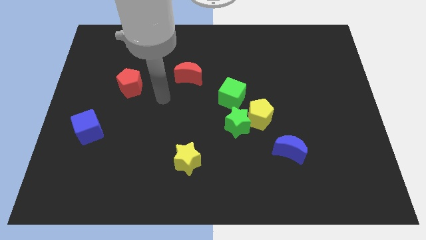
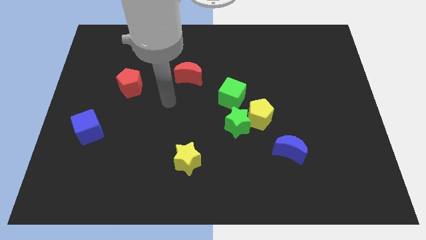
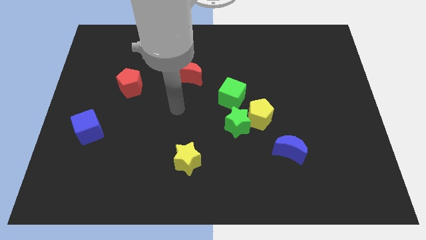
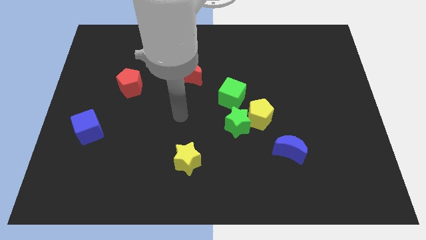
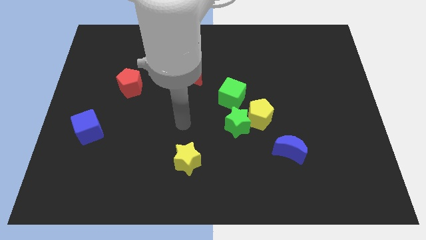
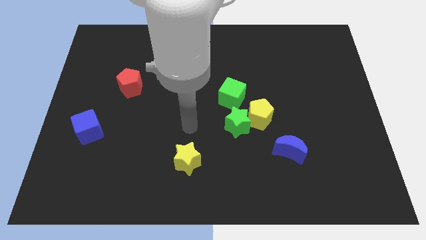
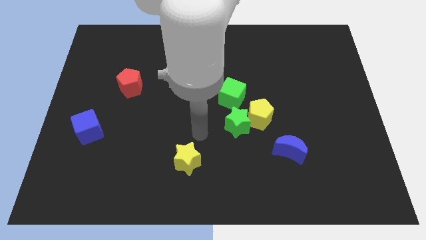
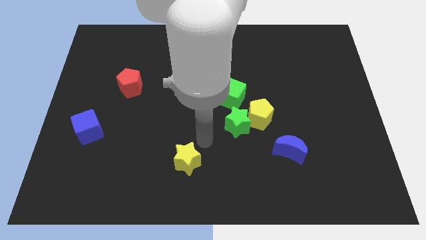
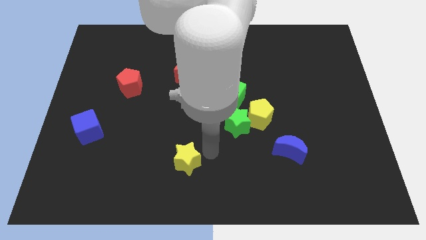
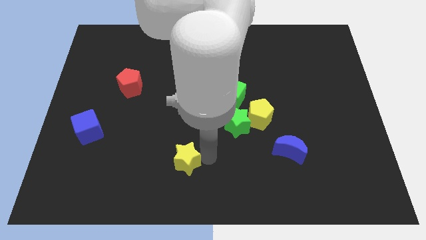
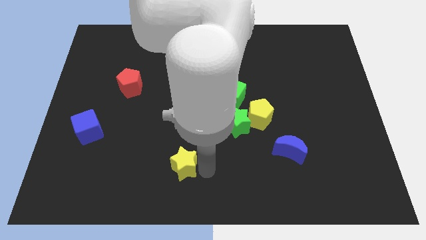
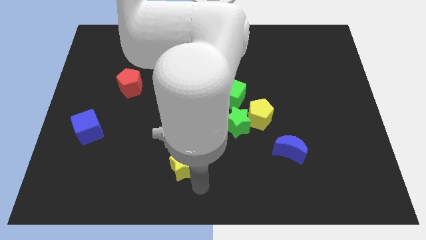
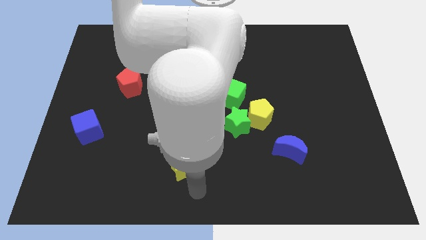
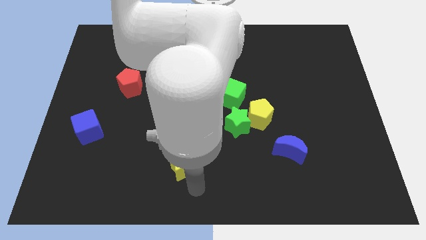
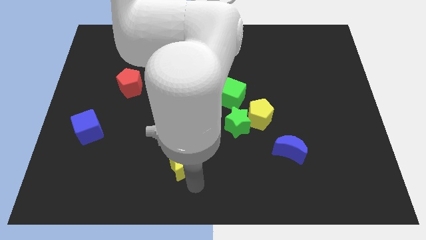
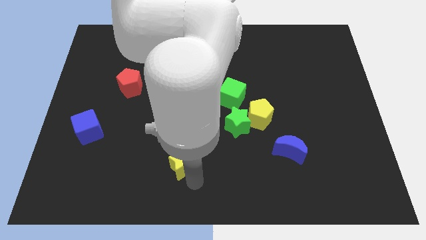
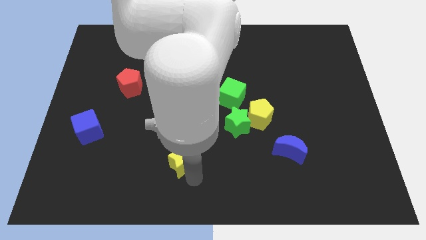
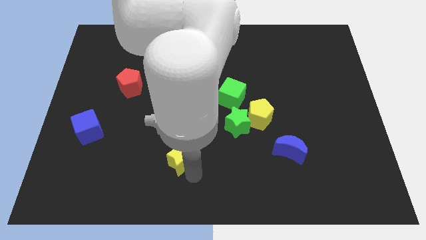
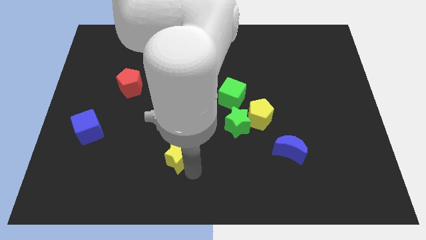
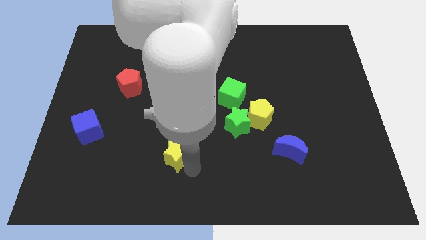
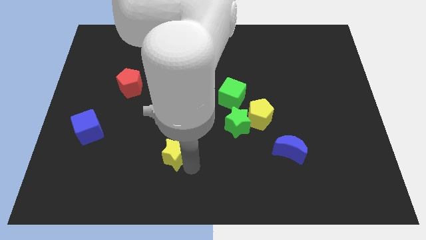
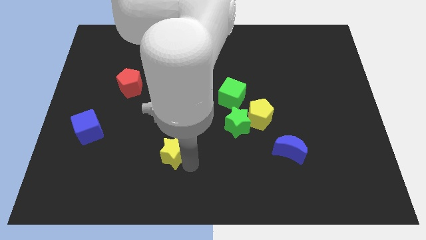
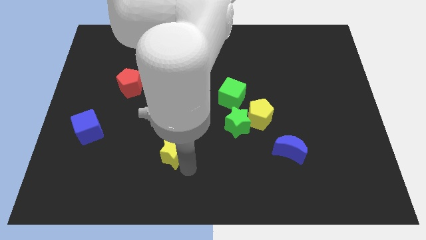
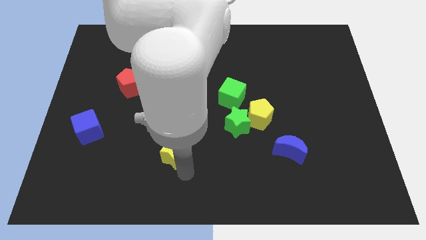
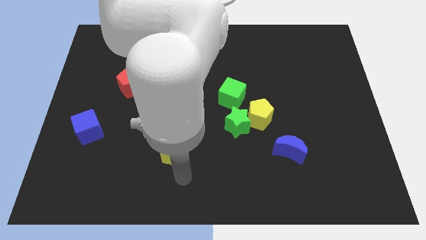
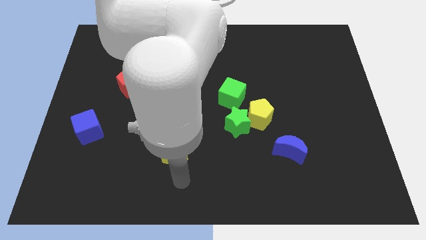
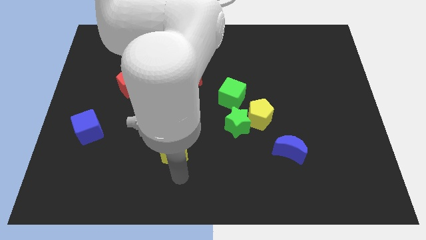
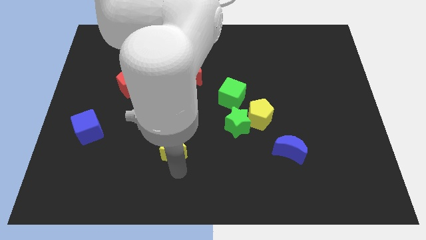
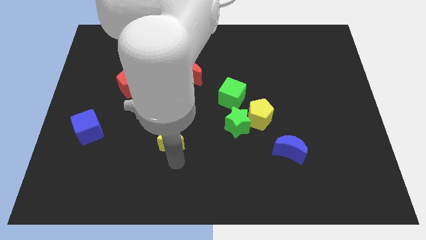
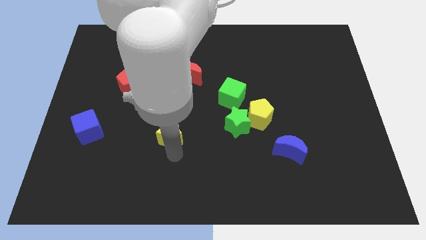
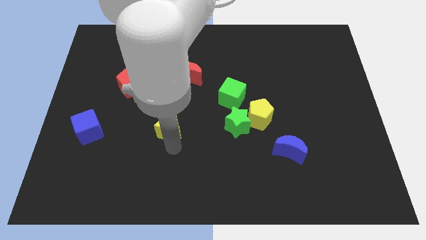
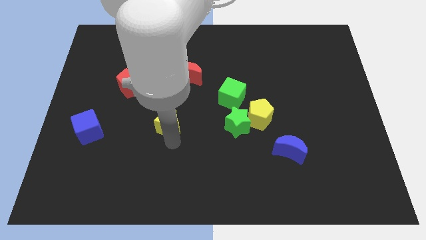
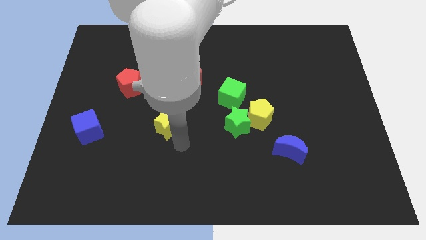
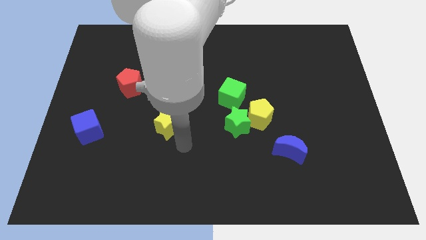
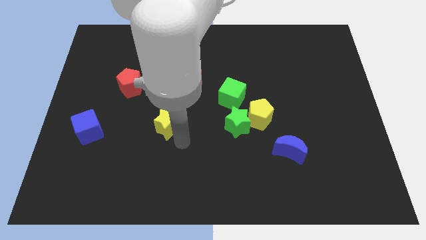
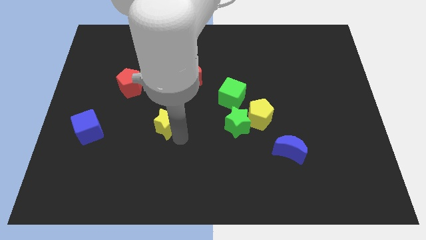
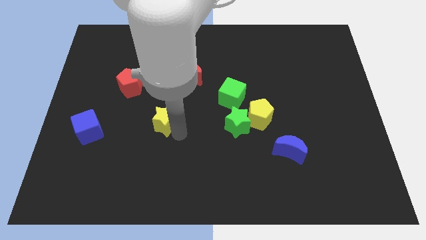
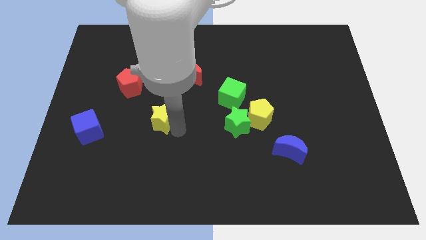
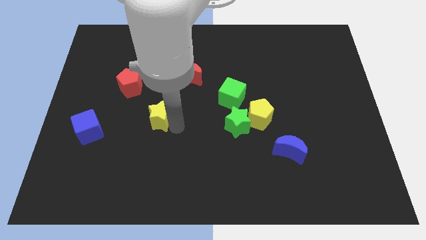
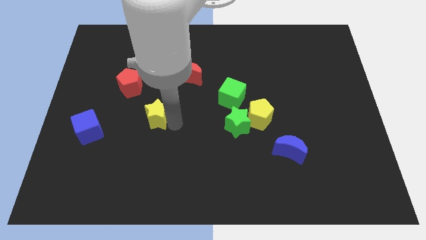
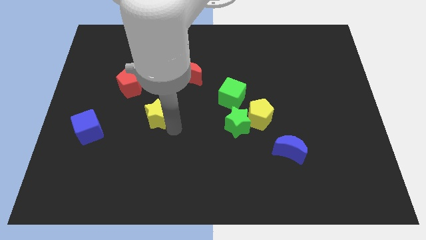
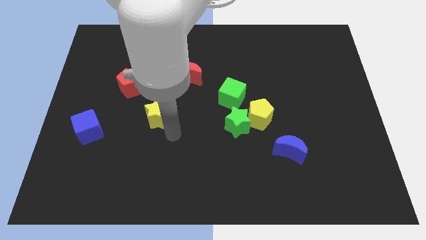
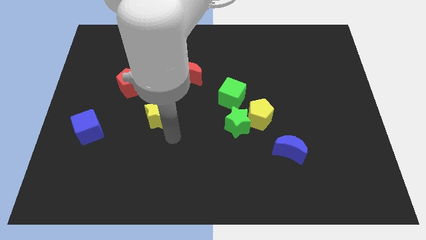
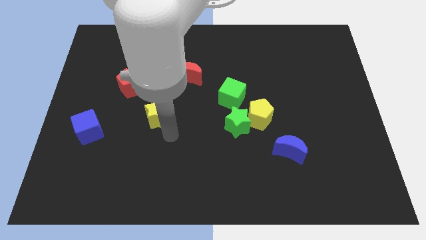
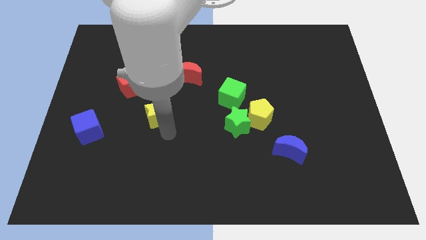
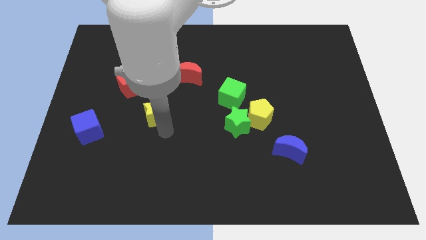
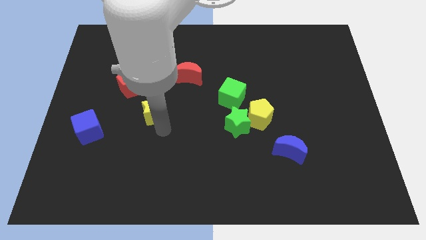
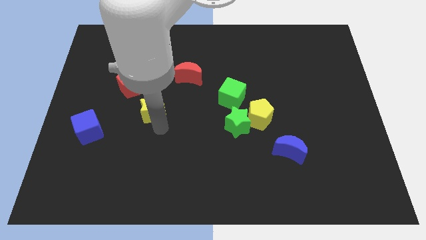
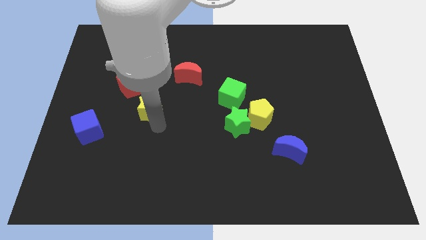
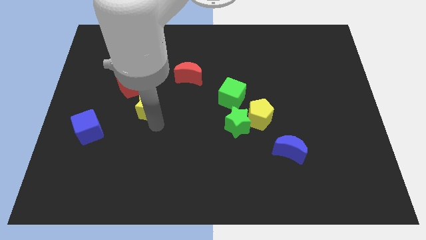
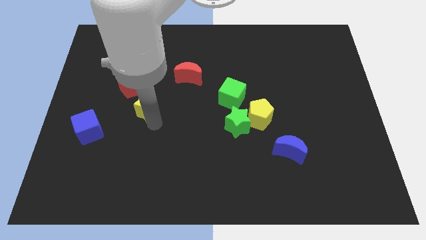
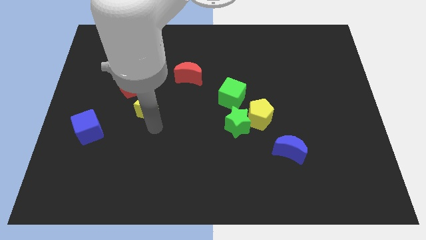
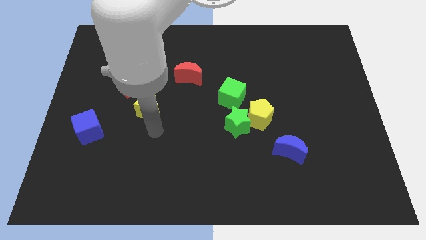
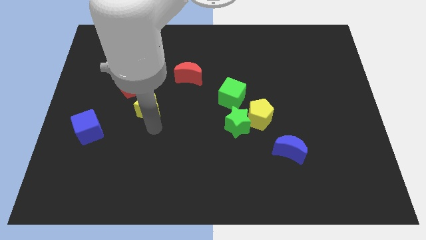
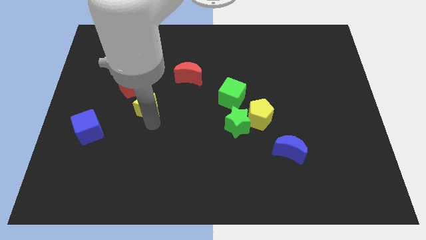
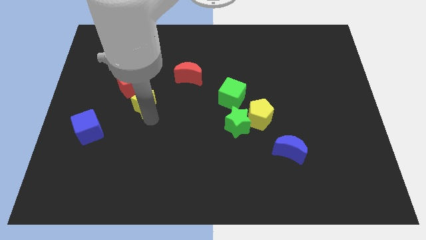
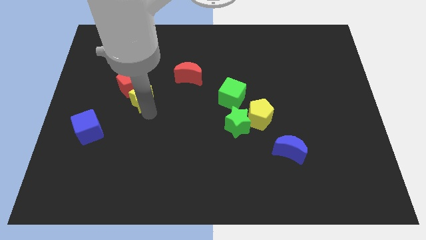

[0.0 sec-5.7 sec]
push the yellow star close to the red pentagon

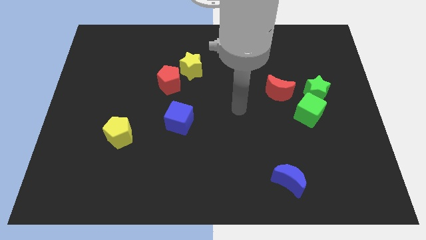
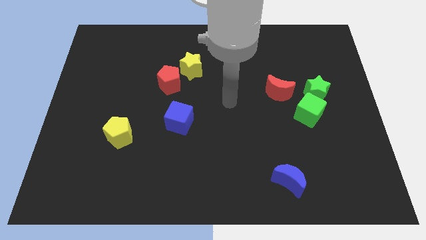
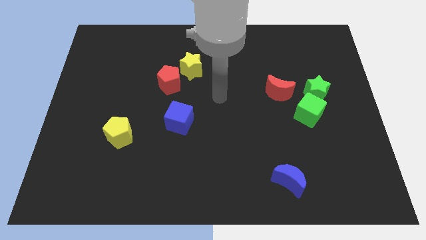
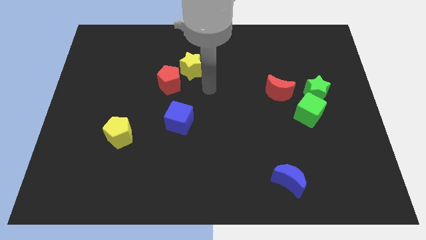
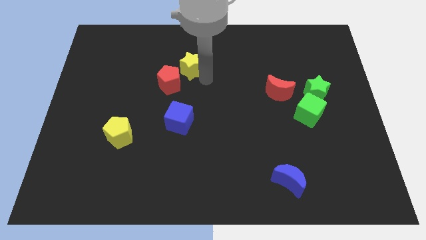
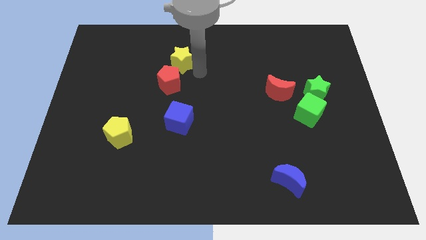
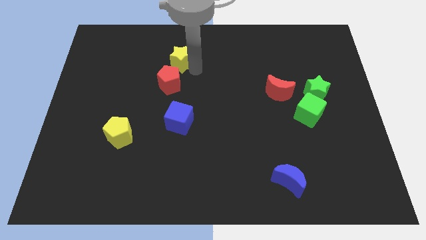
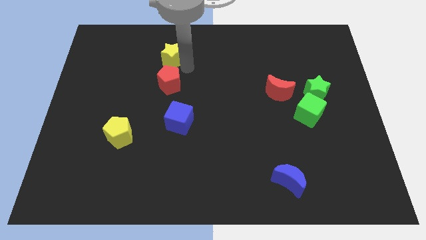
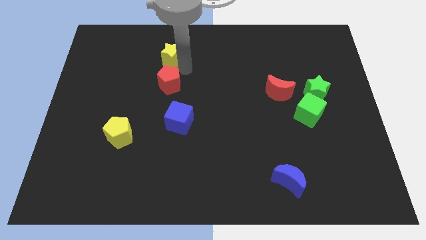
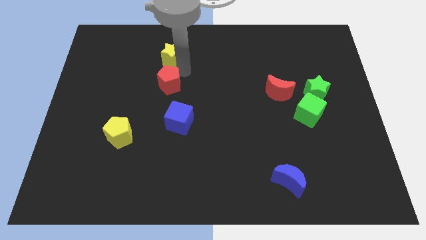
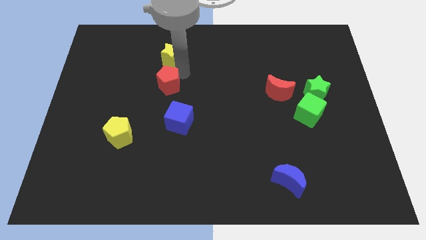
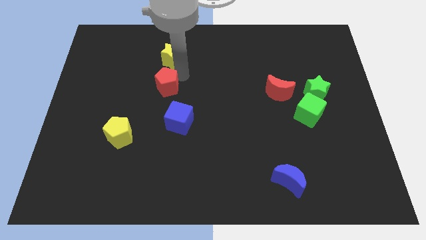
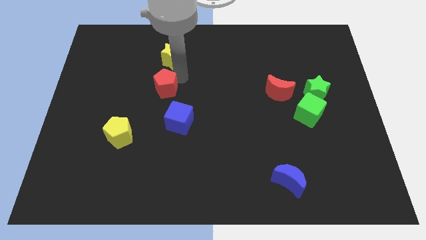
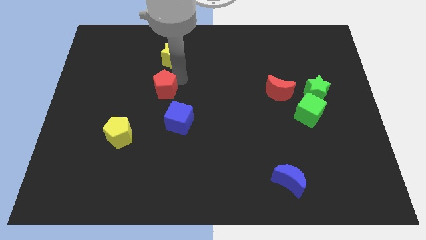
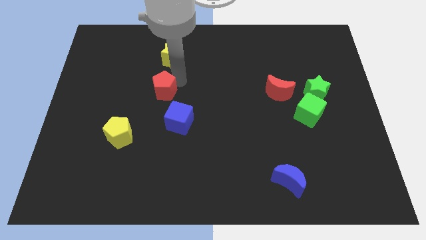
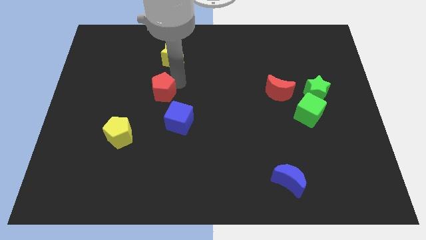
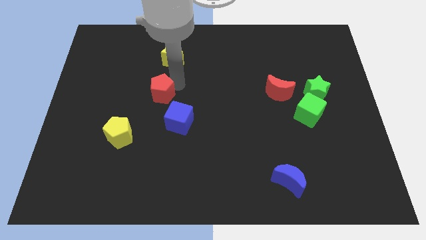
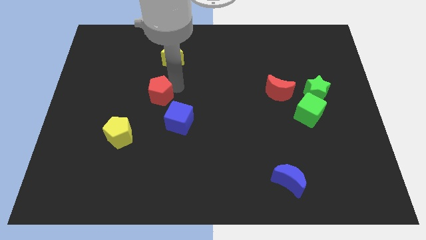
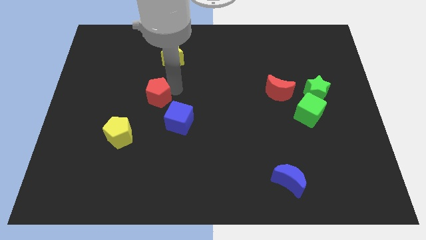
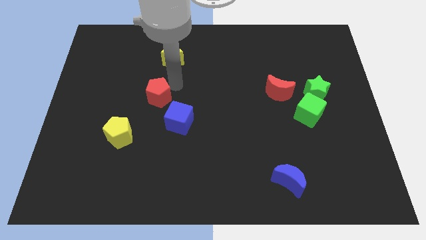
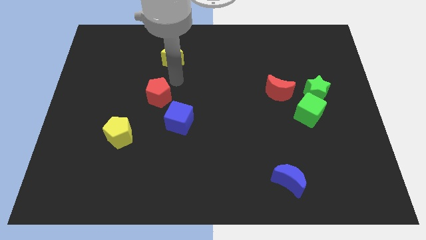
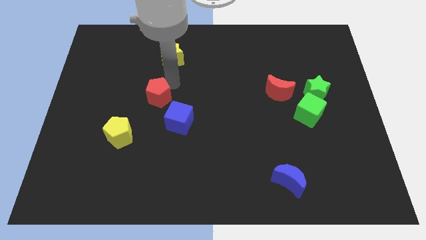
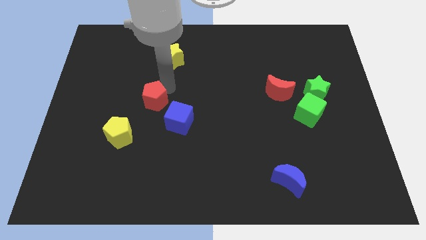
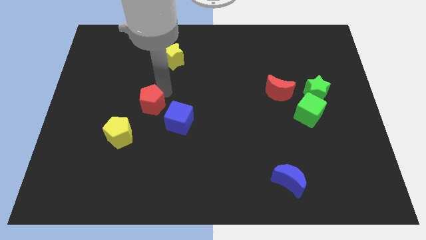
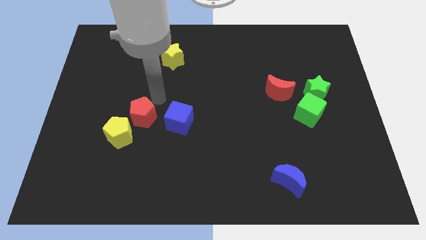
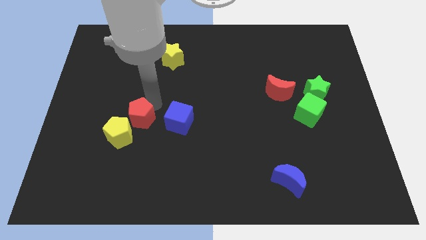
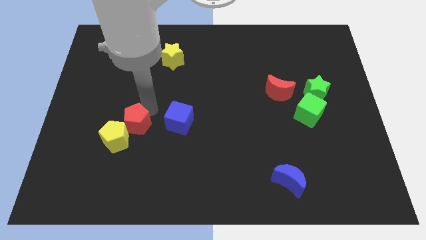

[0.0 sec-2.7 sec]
slide the red pentagon to the yellow pentagon
